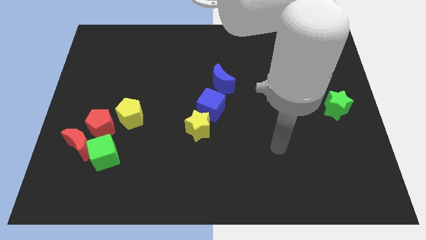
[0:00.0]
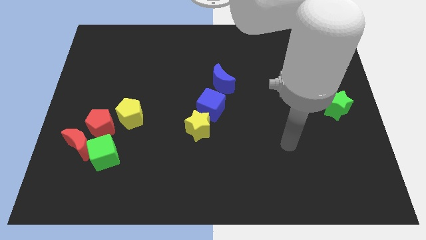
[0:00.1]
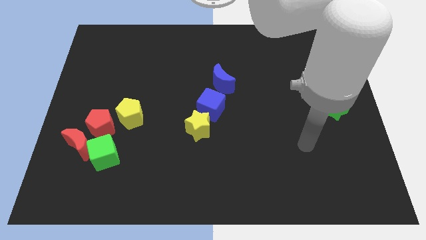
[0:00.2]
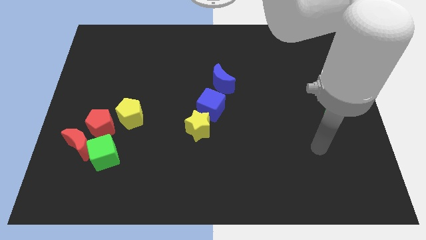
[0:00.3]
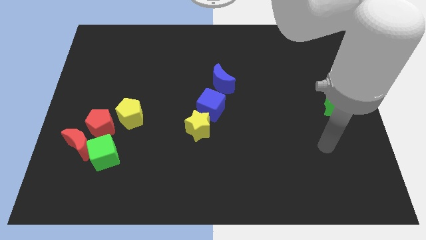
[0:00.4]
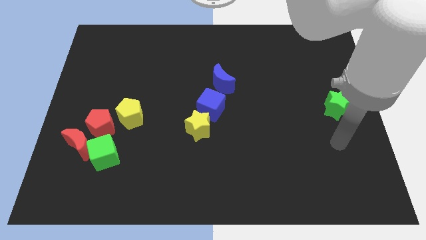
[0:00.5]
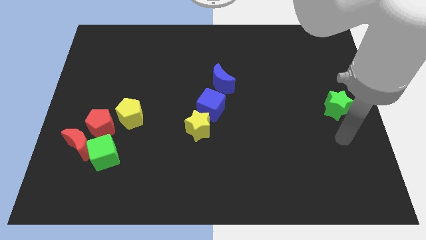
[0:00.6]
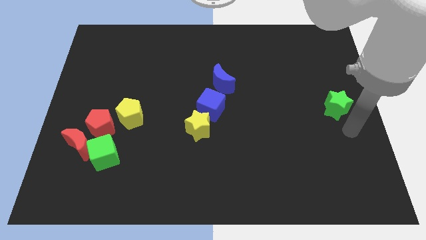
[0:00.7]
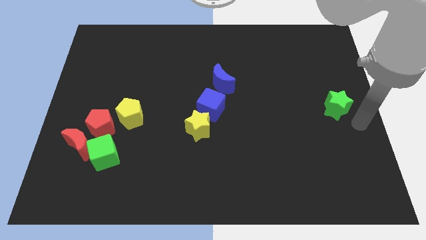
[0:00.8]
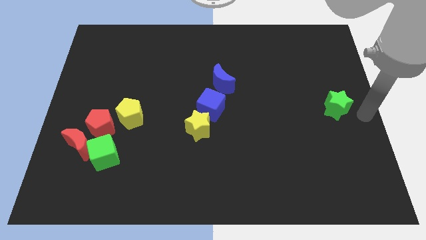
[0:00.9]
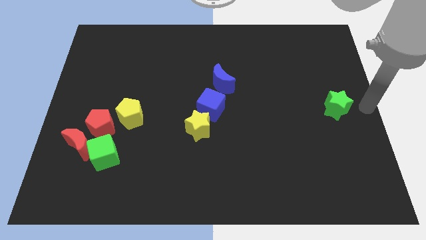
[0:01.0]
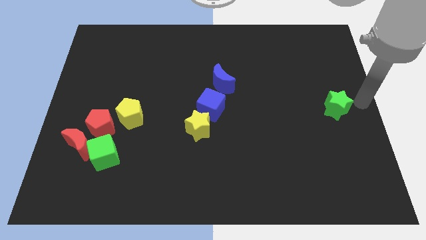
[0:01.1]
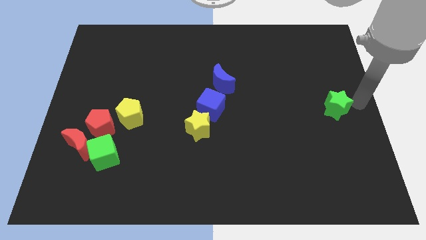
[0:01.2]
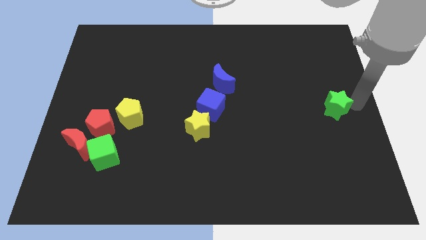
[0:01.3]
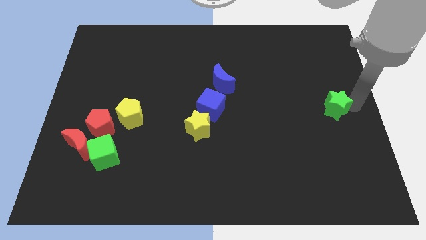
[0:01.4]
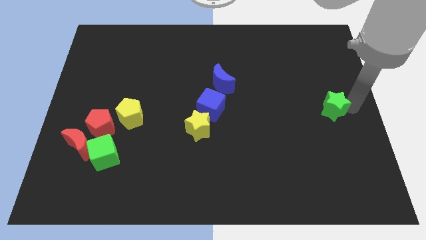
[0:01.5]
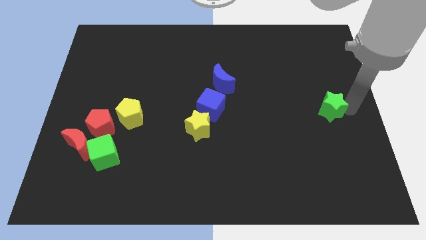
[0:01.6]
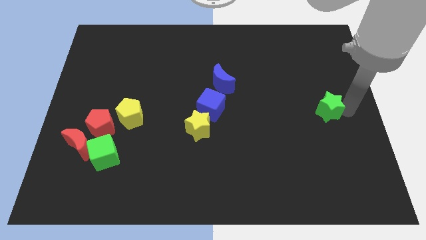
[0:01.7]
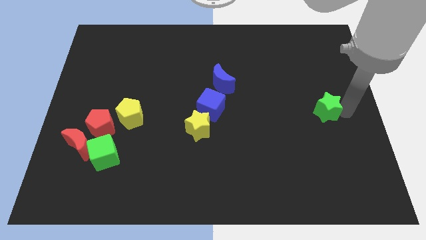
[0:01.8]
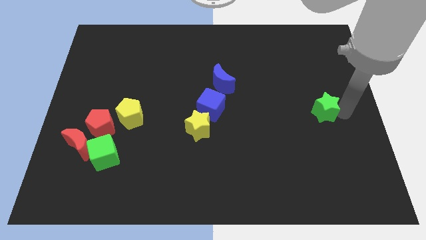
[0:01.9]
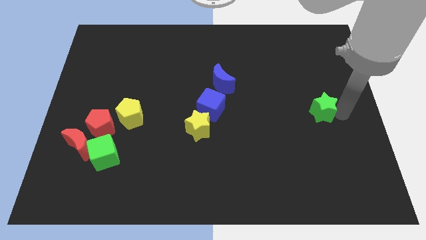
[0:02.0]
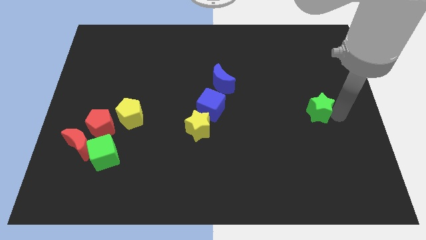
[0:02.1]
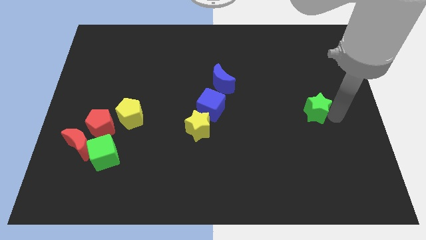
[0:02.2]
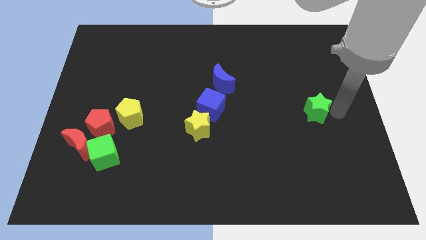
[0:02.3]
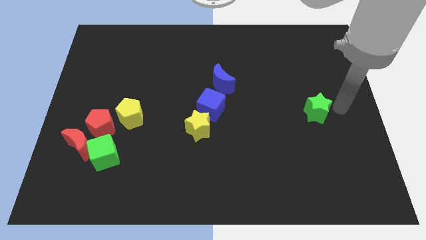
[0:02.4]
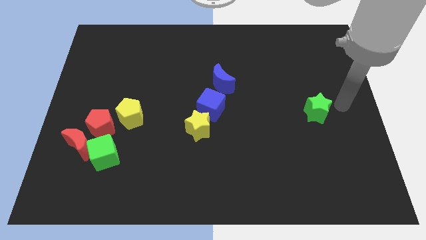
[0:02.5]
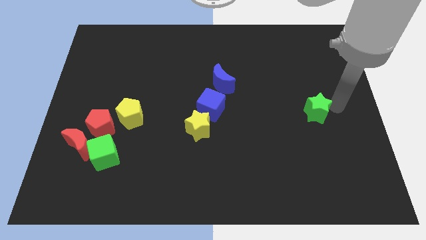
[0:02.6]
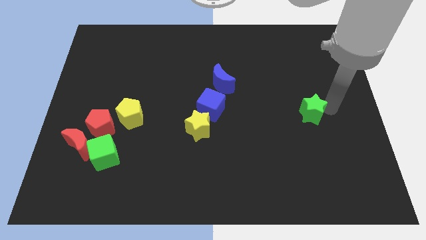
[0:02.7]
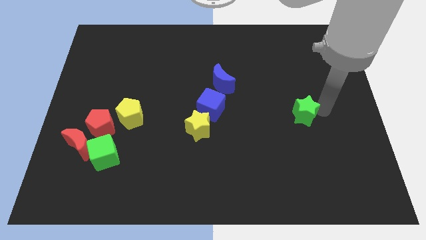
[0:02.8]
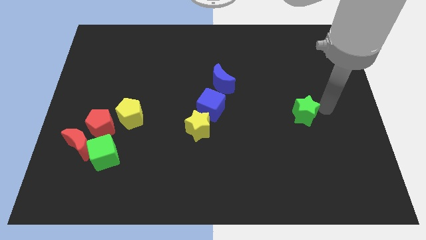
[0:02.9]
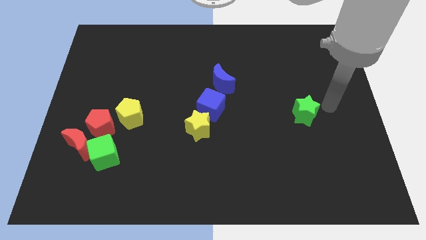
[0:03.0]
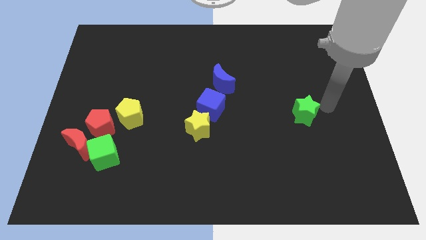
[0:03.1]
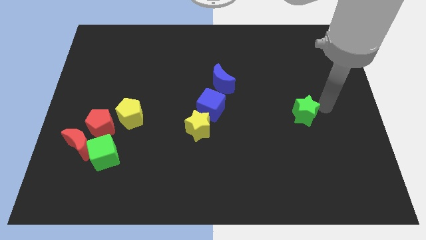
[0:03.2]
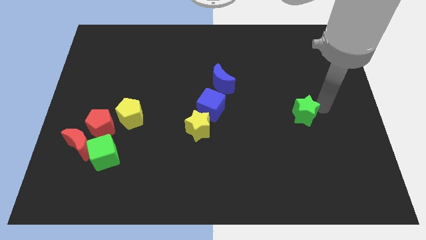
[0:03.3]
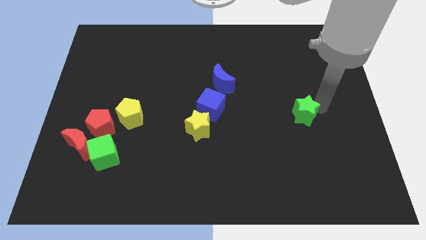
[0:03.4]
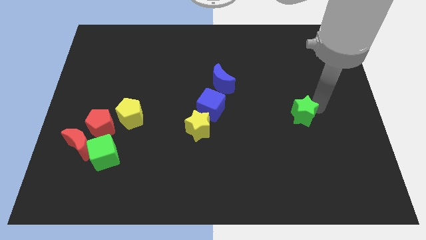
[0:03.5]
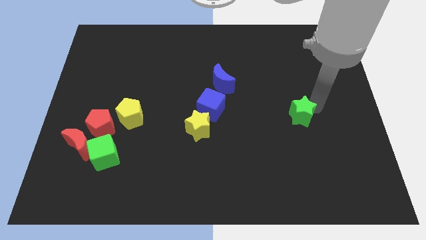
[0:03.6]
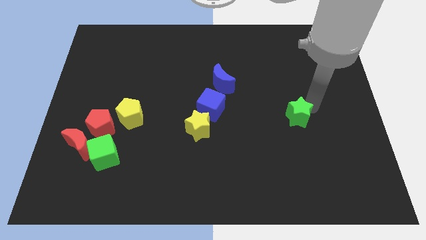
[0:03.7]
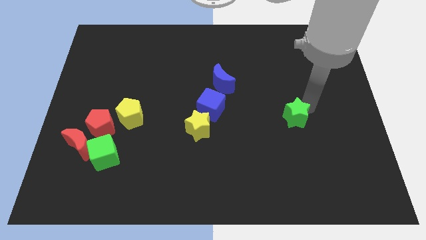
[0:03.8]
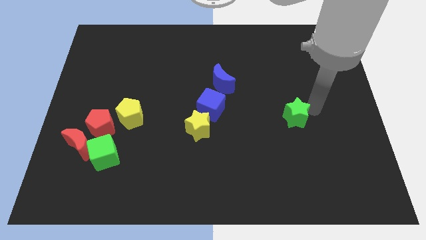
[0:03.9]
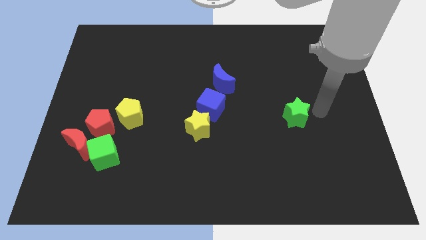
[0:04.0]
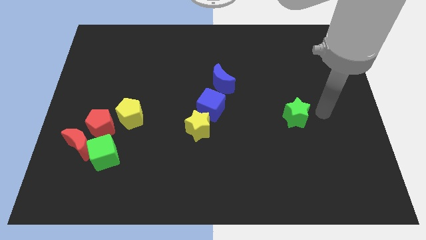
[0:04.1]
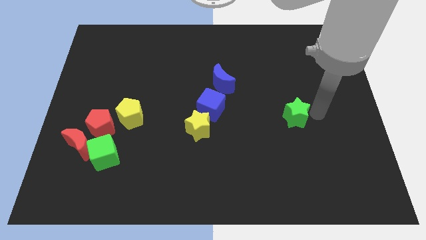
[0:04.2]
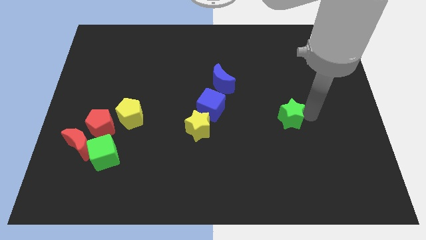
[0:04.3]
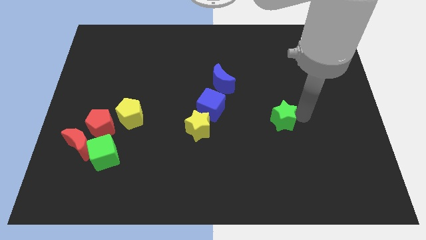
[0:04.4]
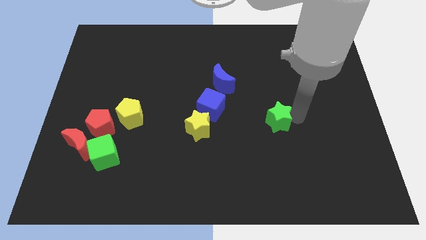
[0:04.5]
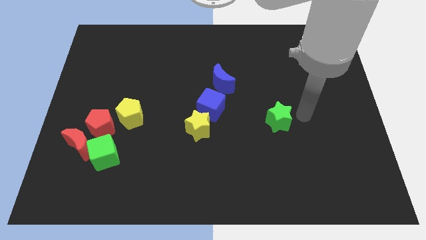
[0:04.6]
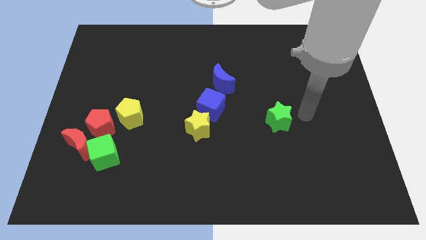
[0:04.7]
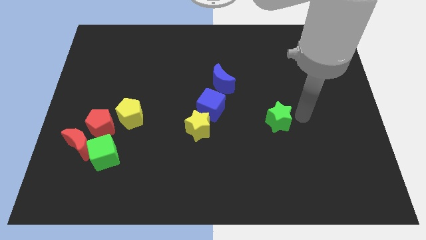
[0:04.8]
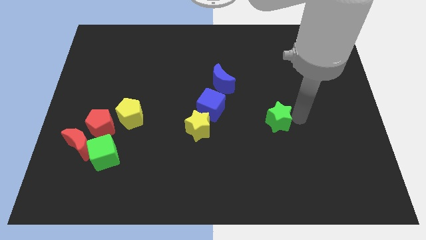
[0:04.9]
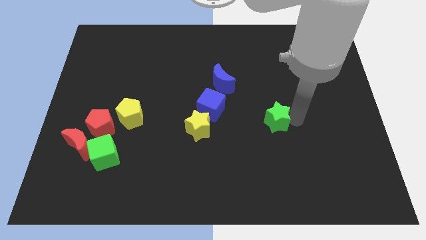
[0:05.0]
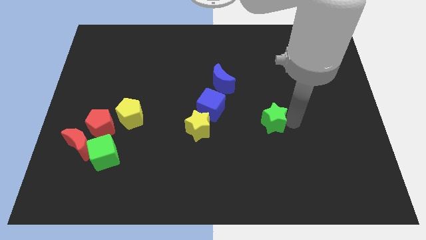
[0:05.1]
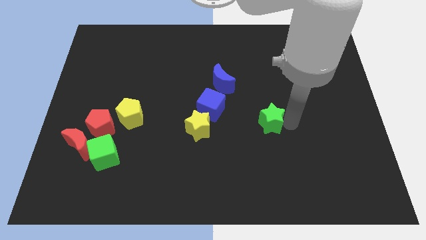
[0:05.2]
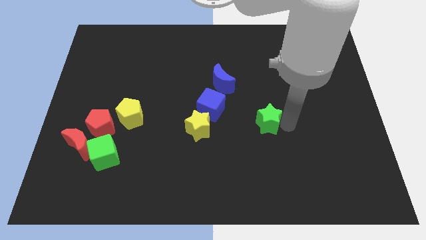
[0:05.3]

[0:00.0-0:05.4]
push the green star to the right side of the yellow star

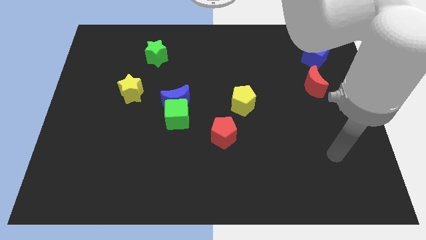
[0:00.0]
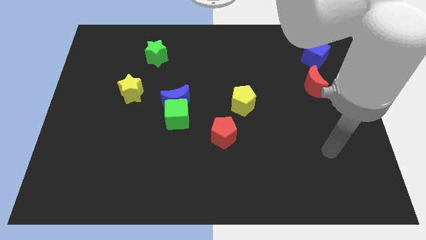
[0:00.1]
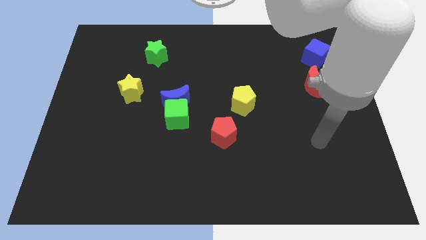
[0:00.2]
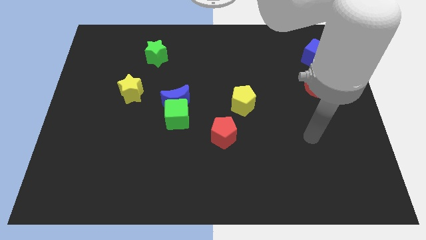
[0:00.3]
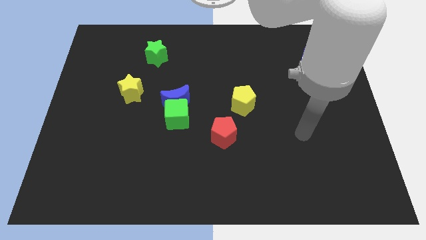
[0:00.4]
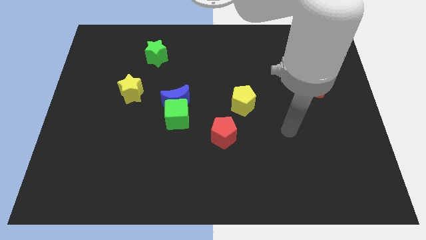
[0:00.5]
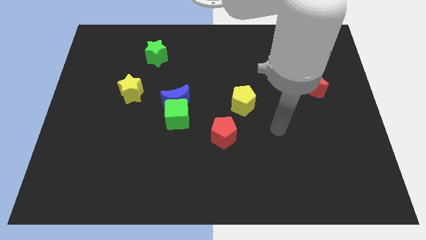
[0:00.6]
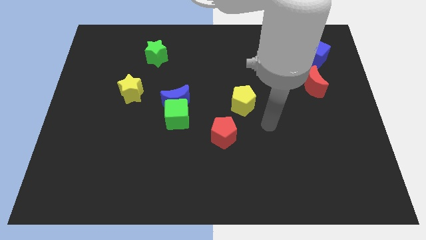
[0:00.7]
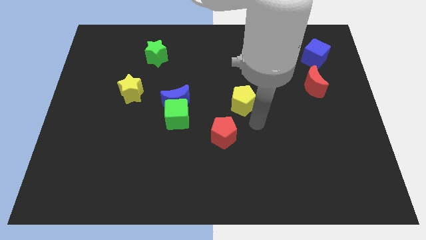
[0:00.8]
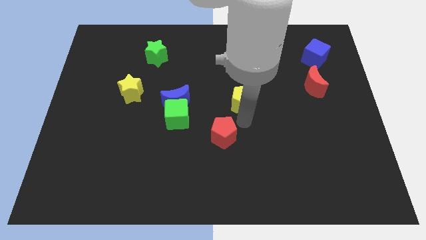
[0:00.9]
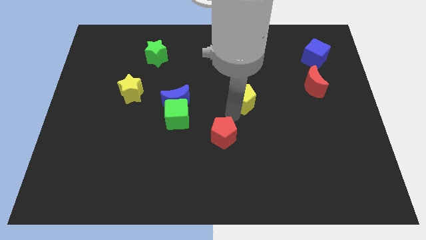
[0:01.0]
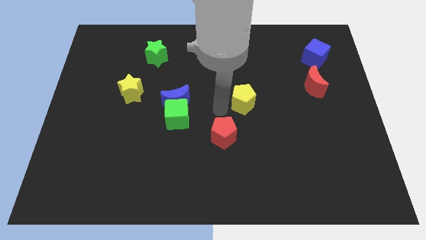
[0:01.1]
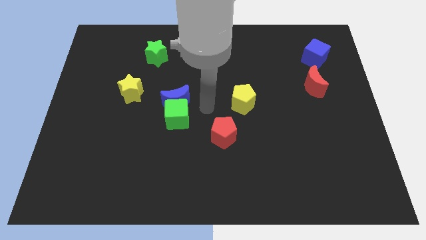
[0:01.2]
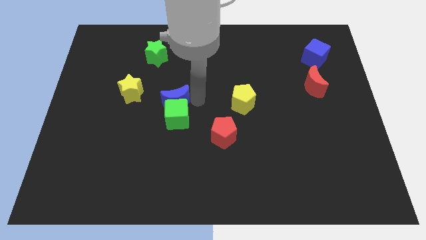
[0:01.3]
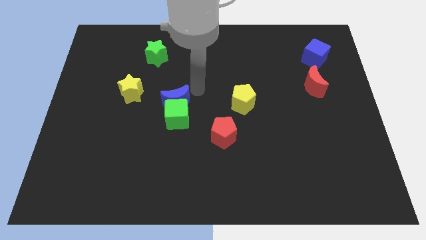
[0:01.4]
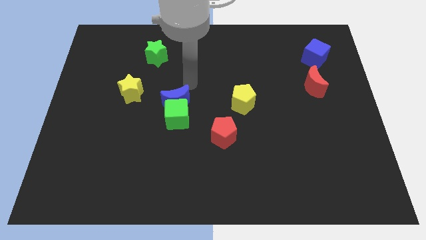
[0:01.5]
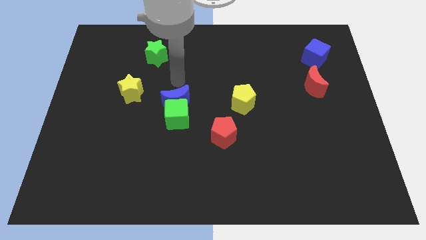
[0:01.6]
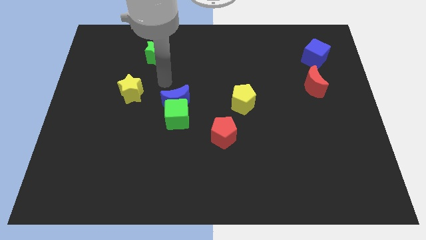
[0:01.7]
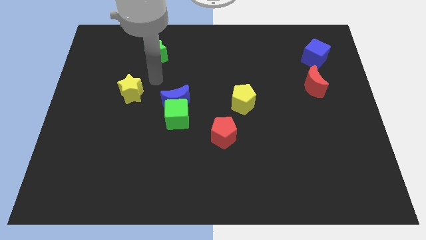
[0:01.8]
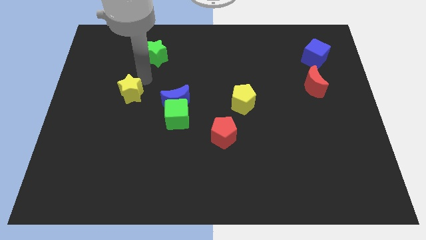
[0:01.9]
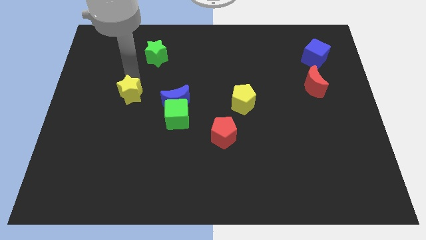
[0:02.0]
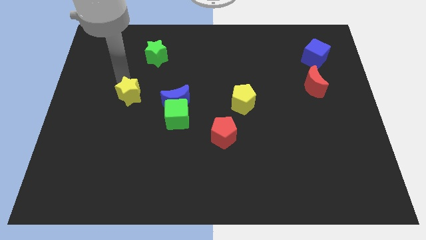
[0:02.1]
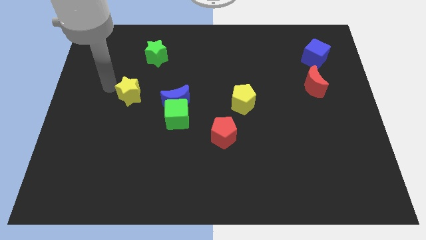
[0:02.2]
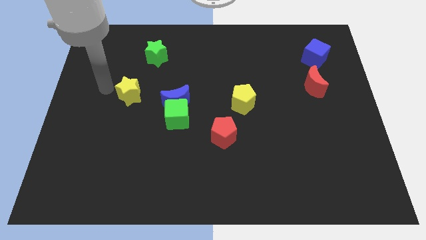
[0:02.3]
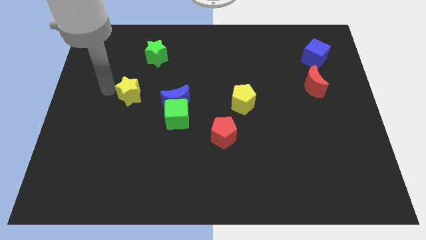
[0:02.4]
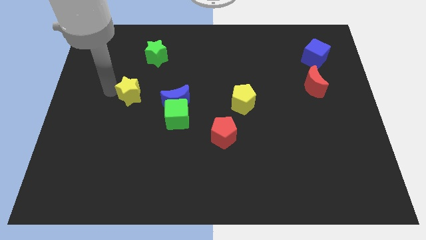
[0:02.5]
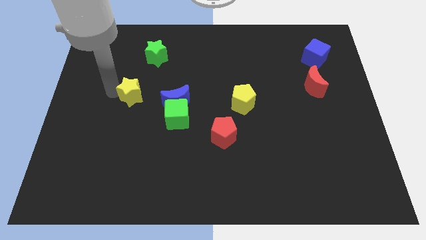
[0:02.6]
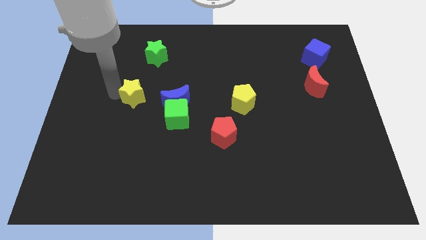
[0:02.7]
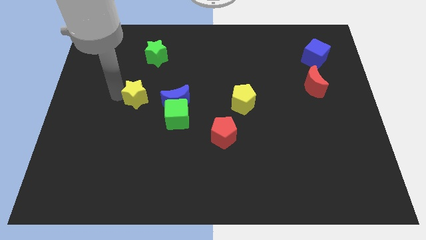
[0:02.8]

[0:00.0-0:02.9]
slide the yellow star diagonally up and to the left of the green cube
